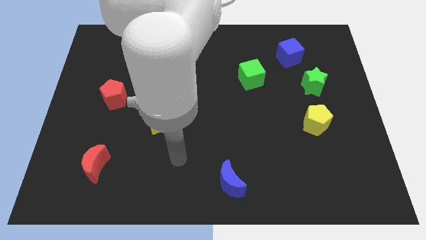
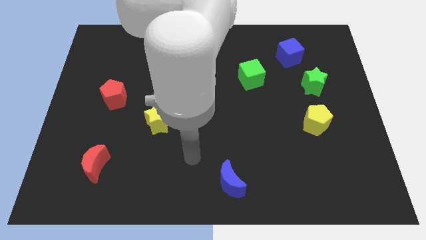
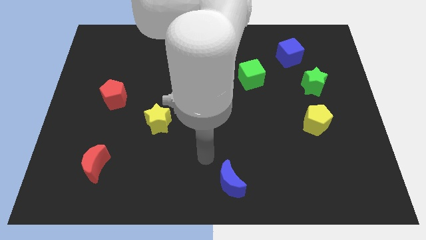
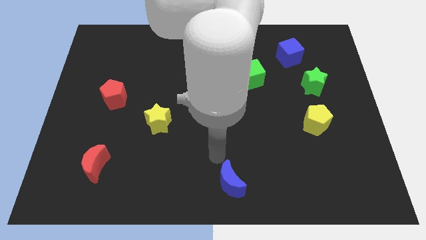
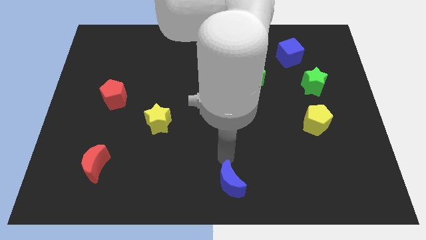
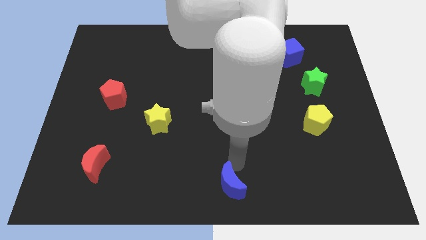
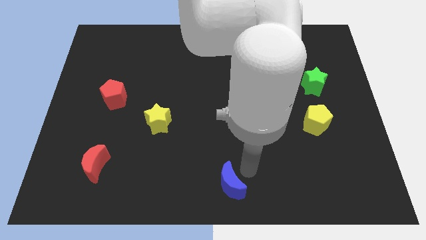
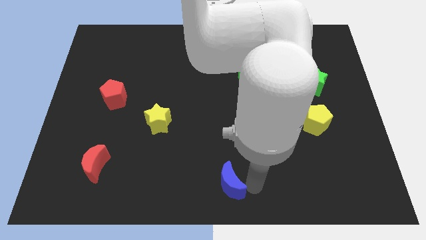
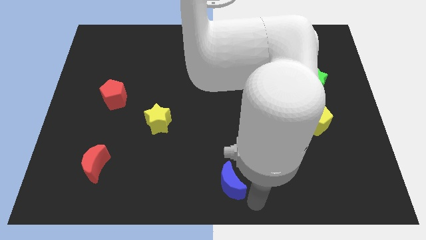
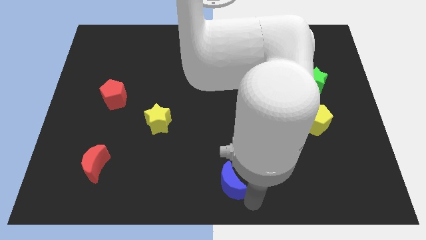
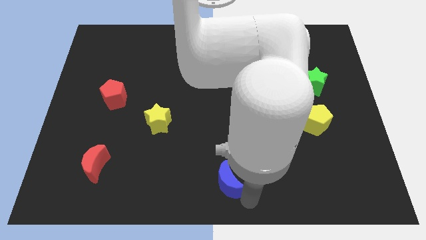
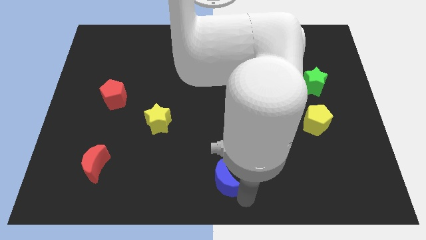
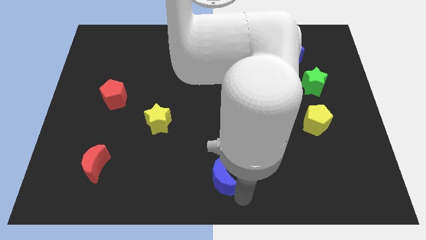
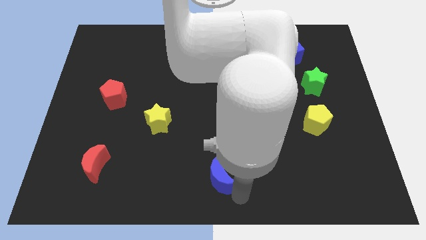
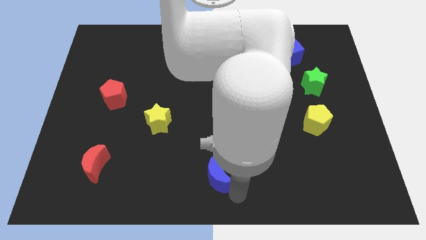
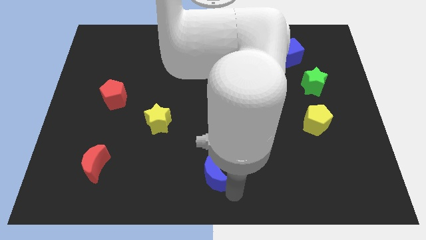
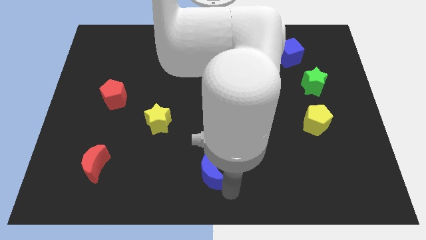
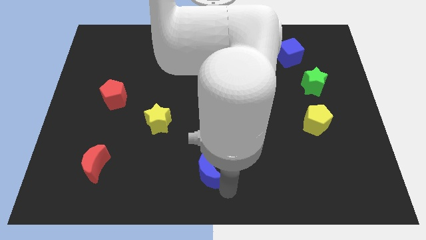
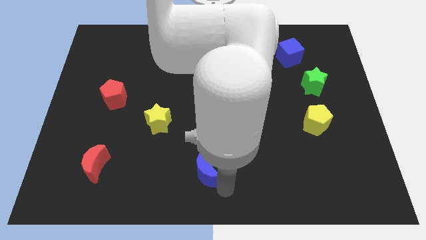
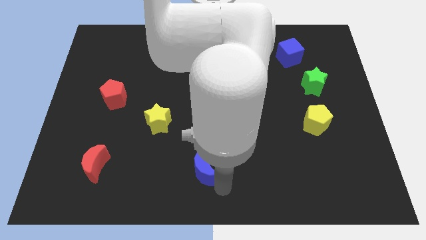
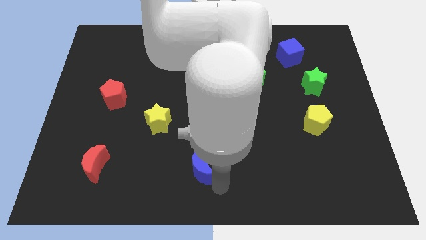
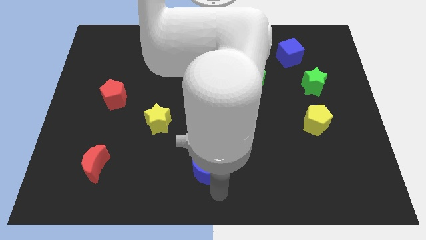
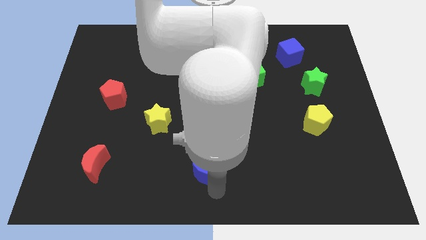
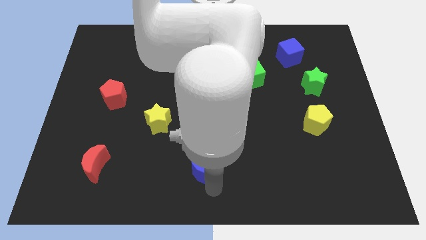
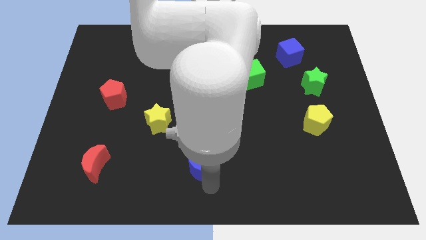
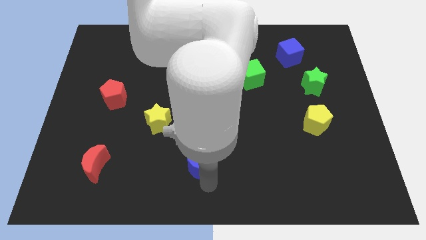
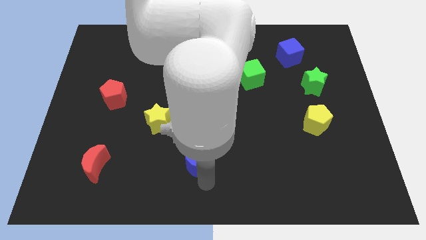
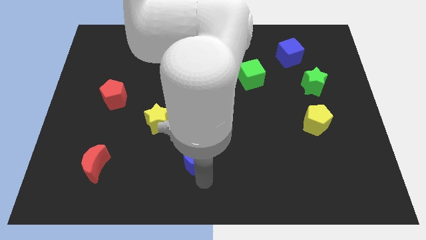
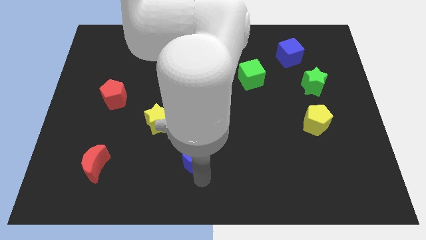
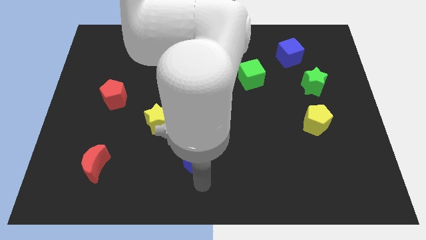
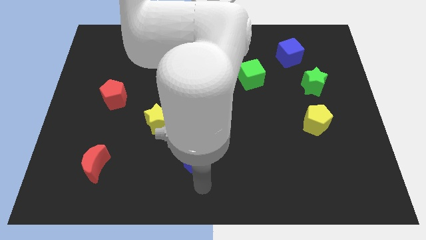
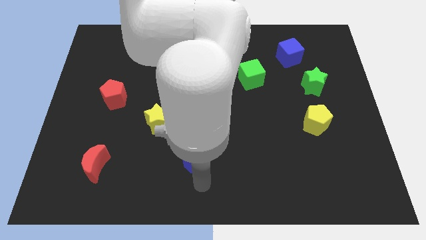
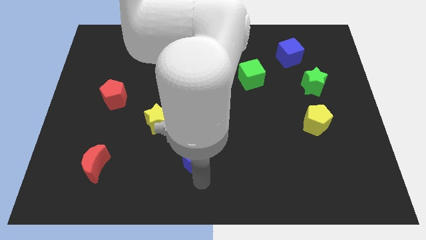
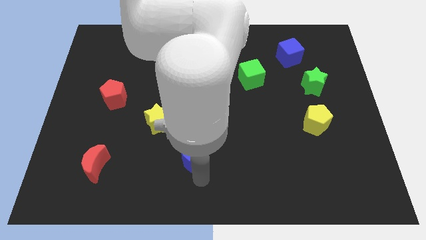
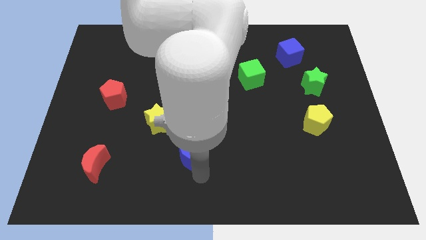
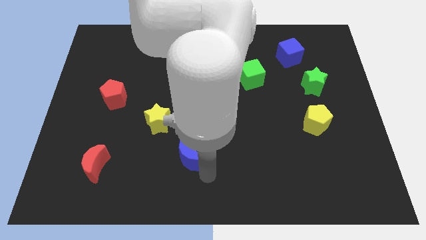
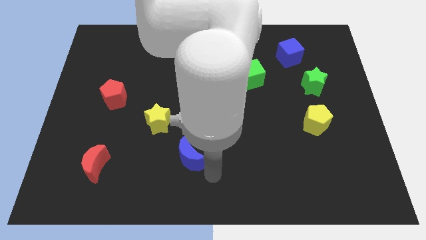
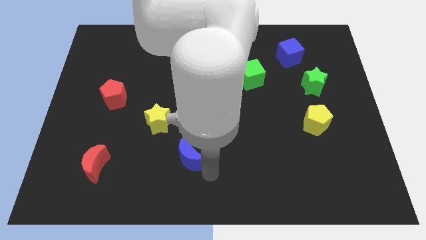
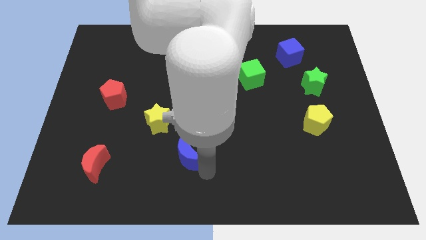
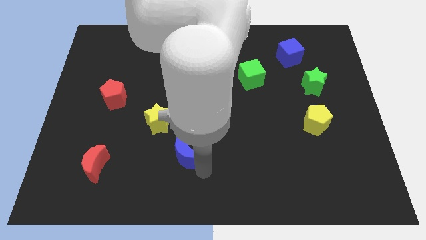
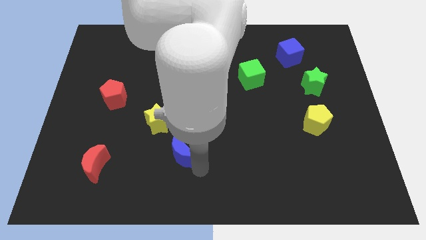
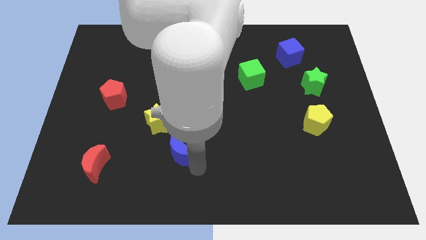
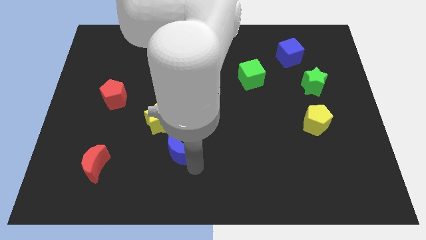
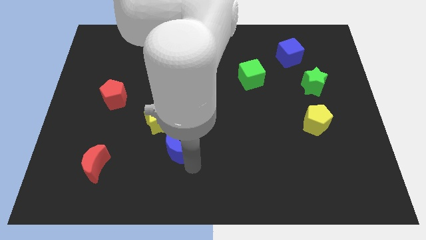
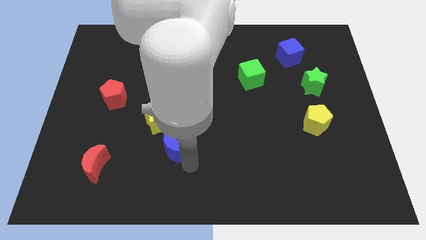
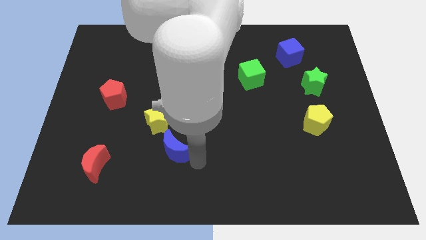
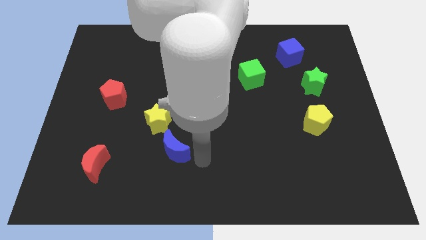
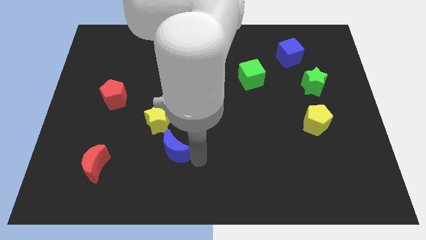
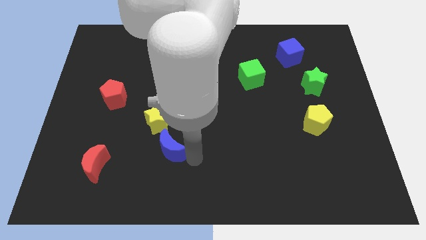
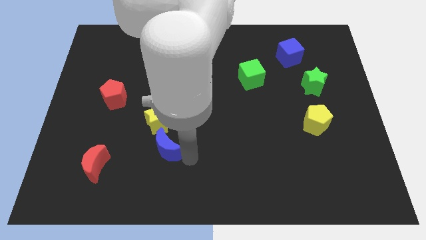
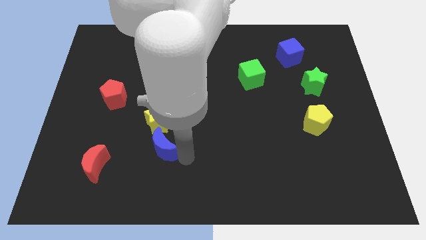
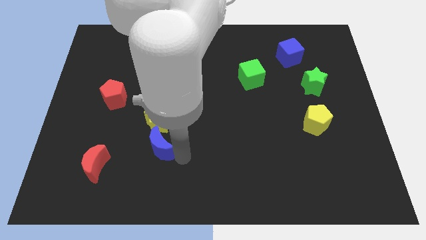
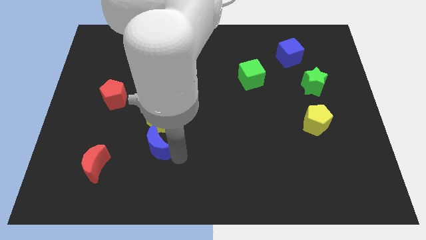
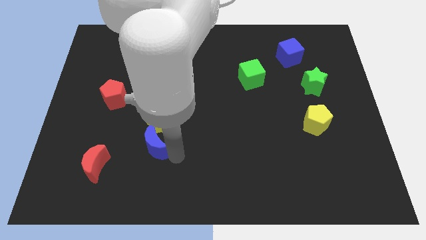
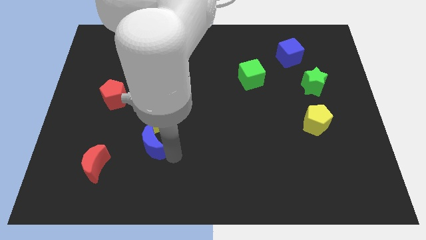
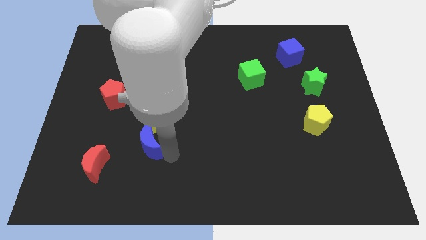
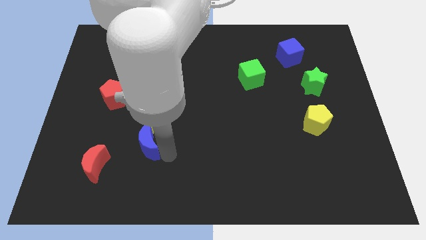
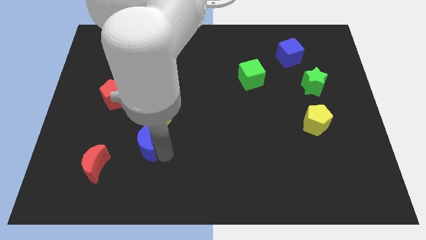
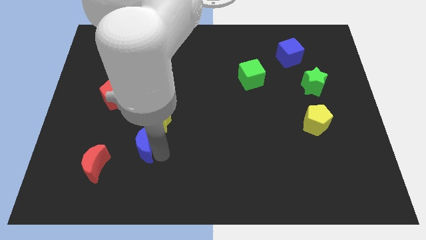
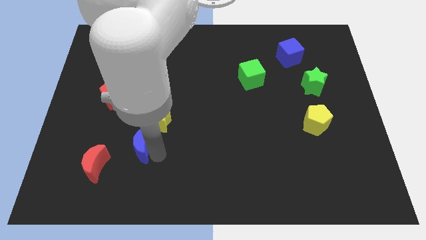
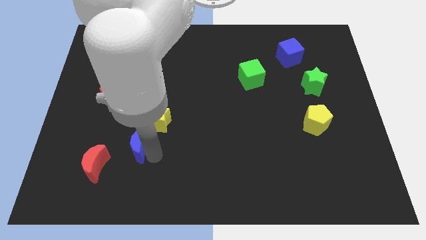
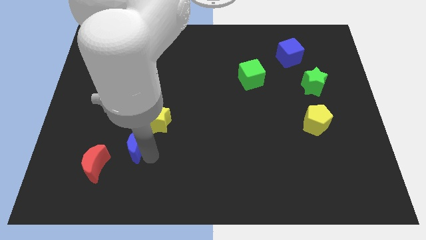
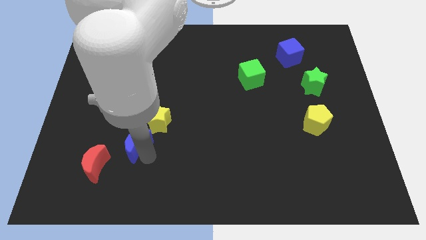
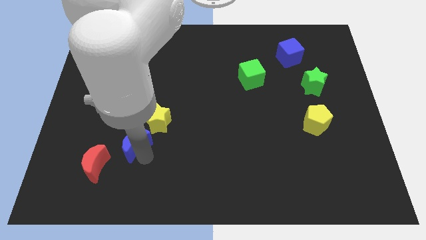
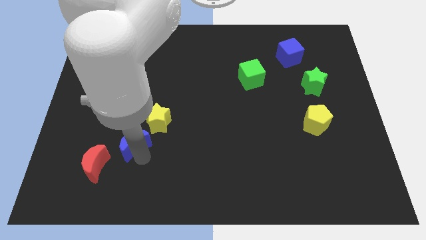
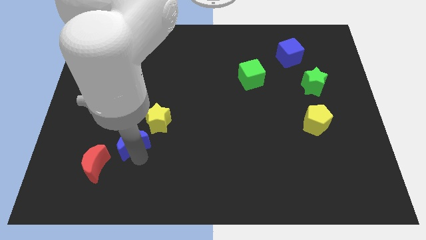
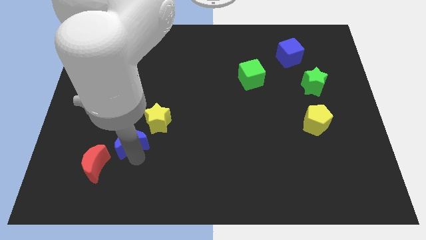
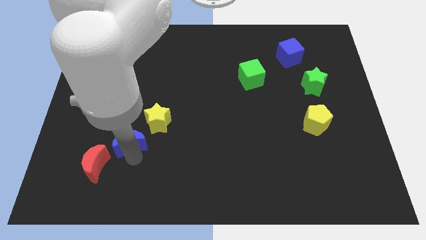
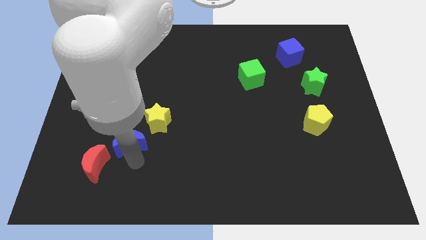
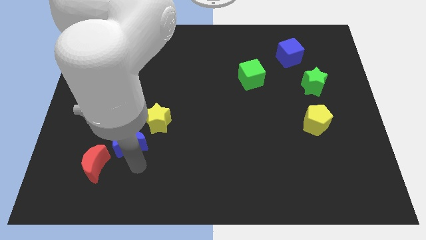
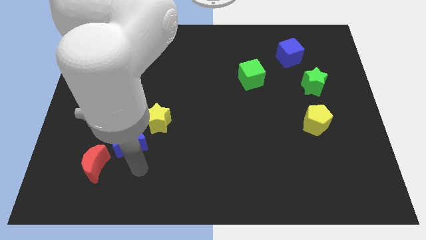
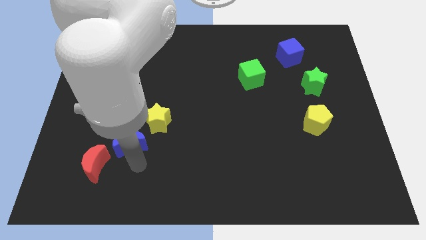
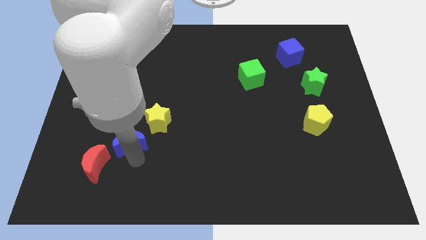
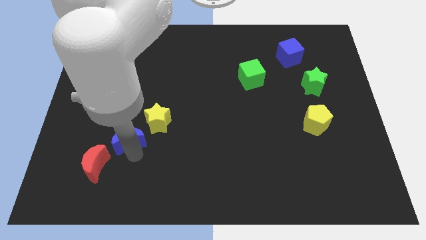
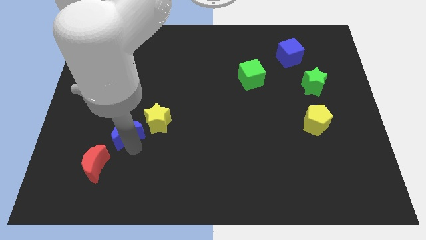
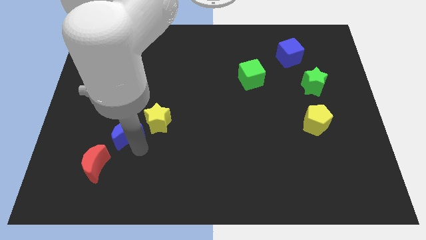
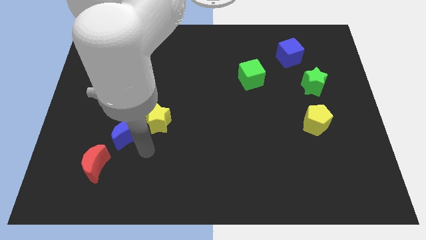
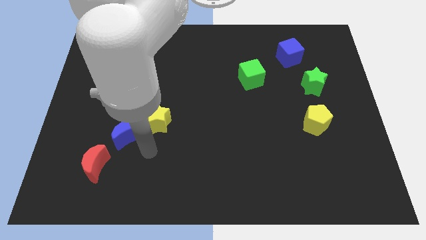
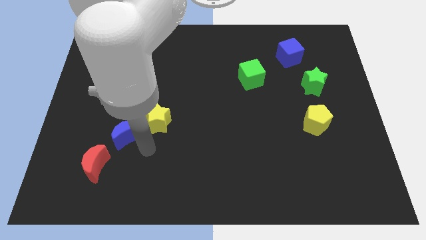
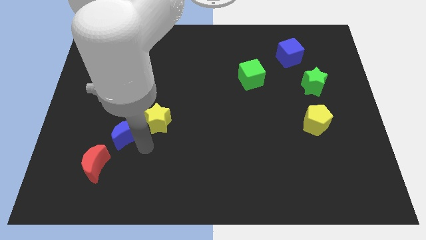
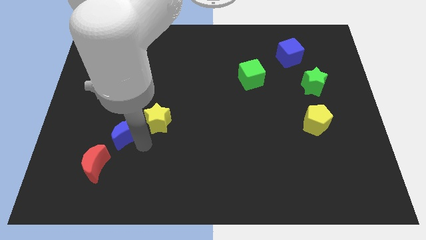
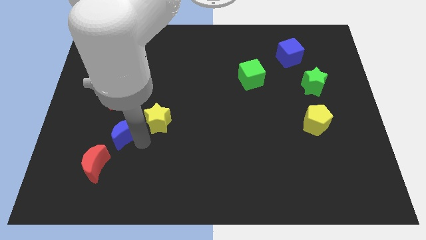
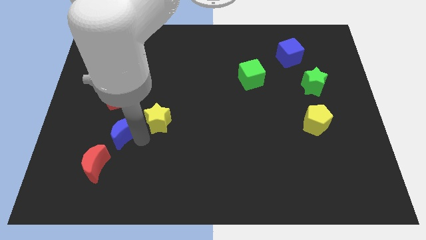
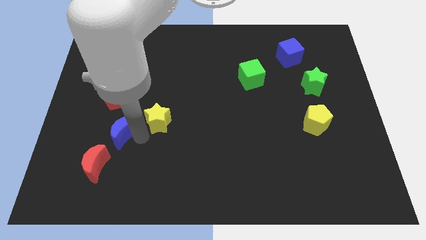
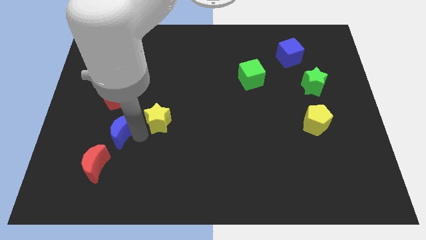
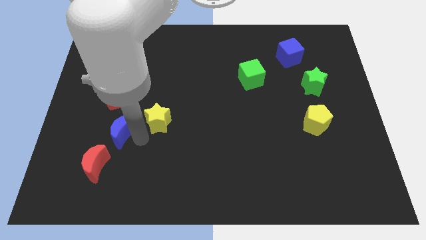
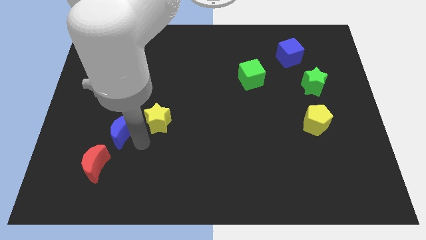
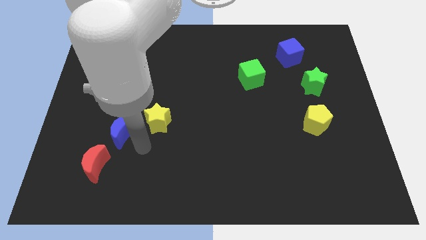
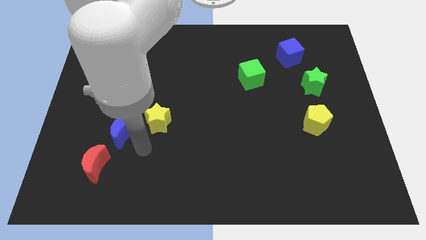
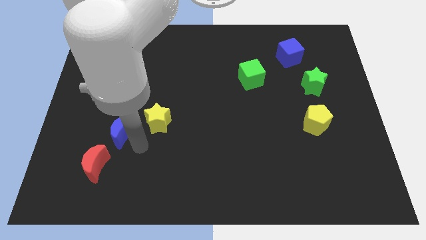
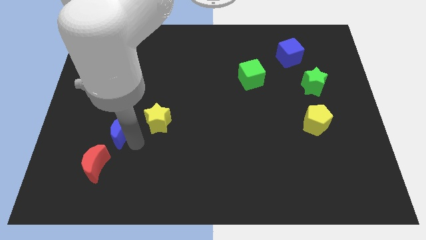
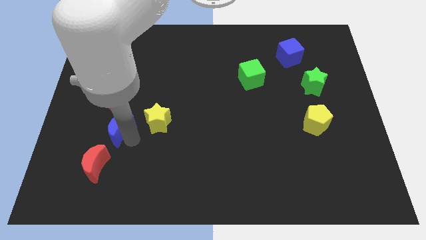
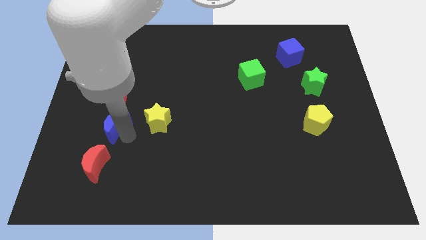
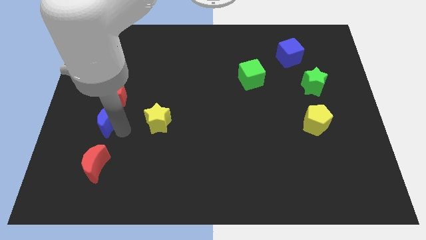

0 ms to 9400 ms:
push the blue moon to the bottom left of the red pentagon
